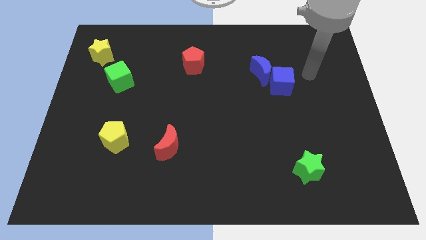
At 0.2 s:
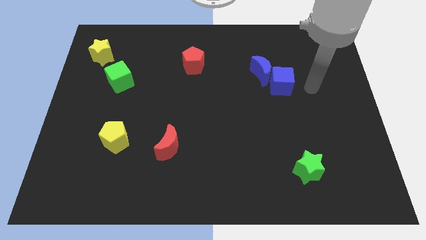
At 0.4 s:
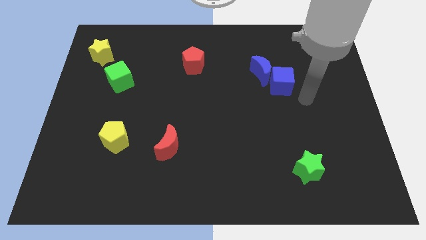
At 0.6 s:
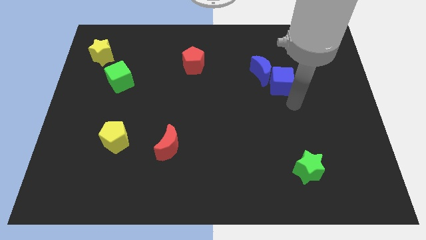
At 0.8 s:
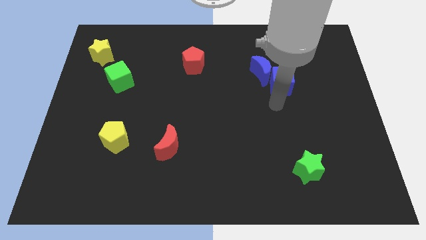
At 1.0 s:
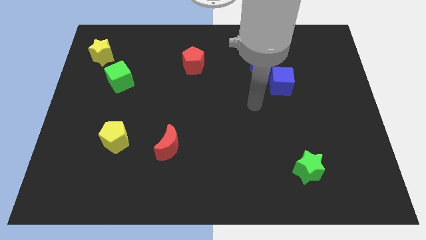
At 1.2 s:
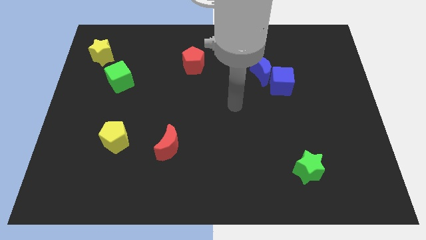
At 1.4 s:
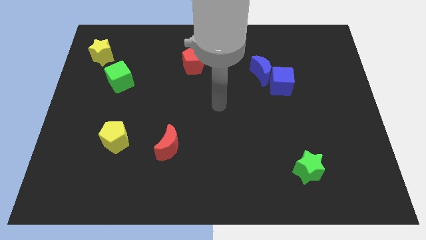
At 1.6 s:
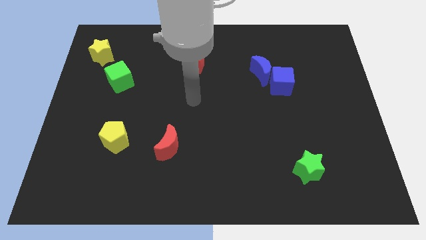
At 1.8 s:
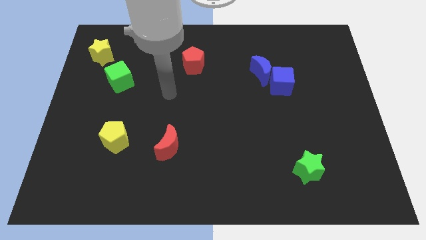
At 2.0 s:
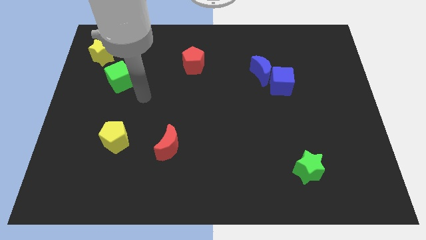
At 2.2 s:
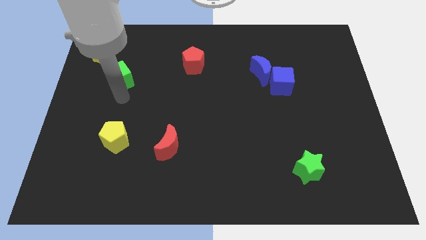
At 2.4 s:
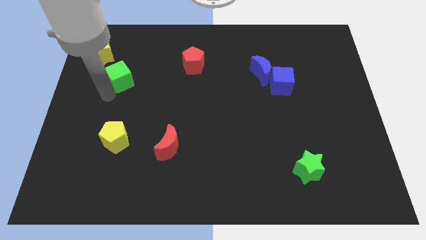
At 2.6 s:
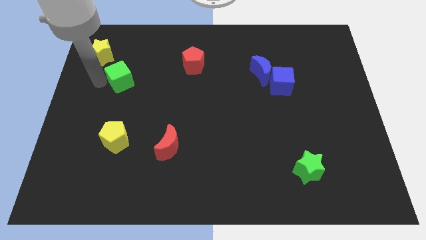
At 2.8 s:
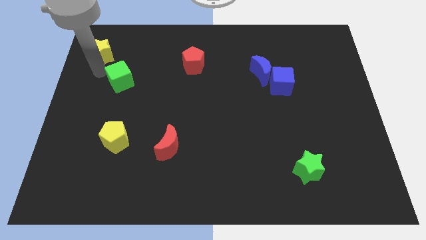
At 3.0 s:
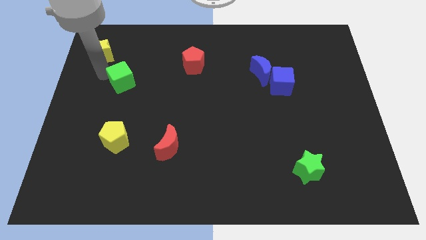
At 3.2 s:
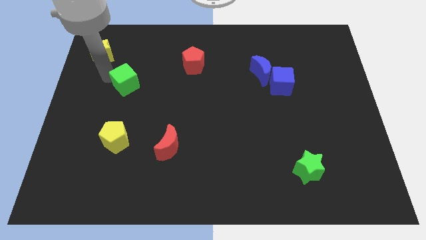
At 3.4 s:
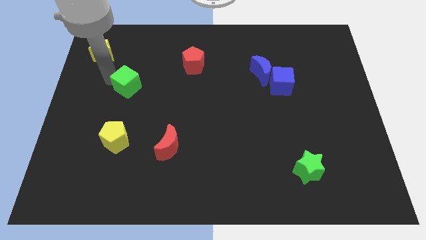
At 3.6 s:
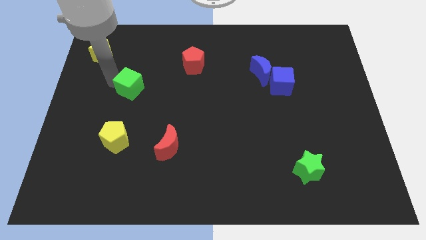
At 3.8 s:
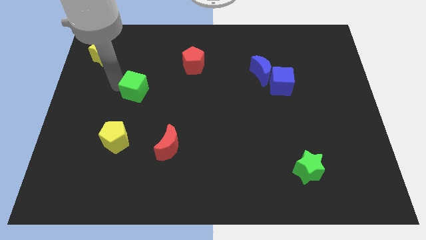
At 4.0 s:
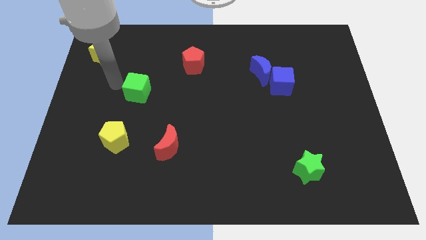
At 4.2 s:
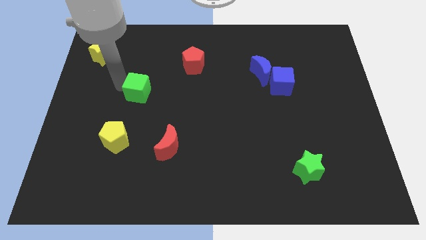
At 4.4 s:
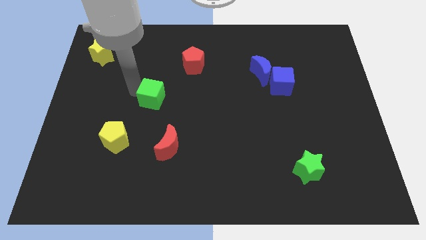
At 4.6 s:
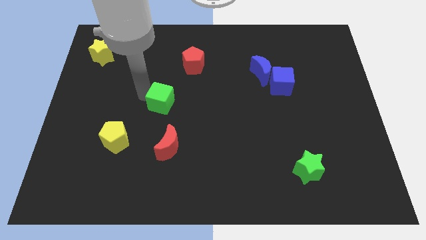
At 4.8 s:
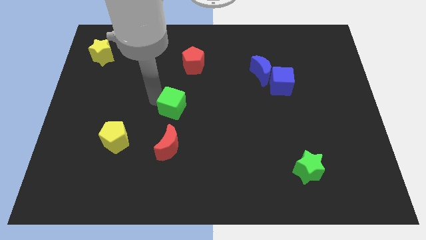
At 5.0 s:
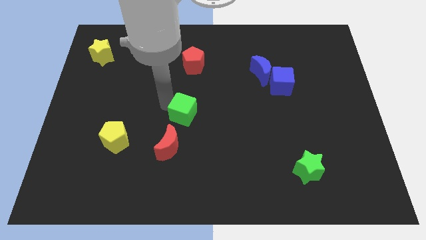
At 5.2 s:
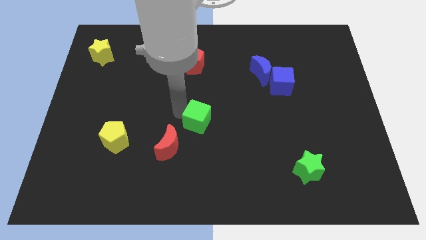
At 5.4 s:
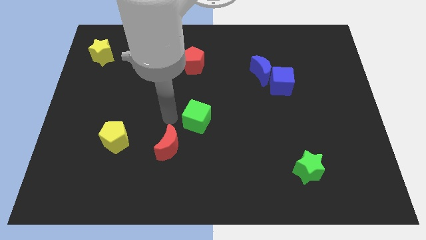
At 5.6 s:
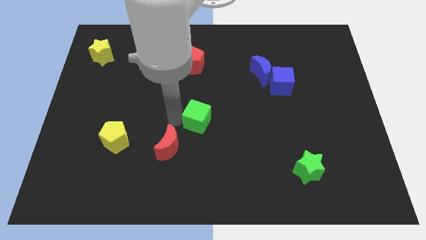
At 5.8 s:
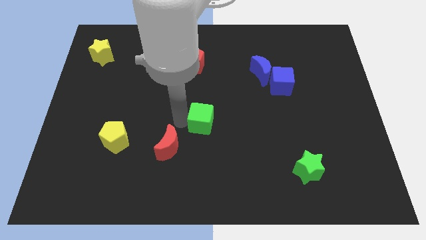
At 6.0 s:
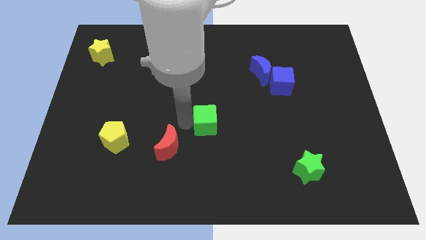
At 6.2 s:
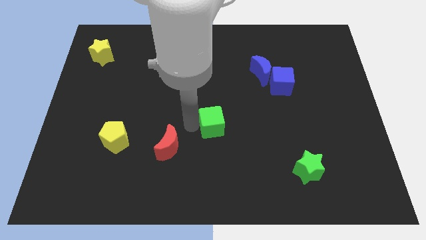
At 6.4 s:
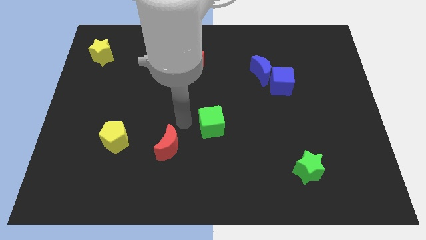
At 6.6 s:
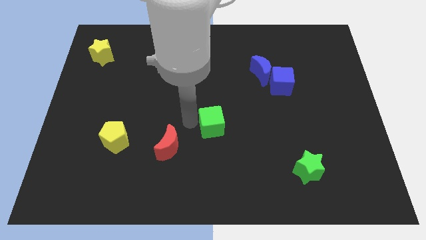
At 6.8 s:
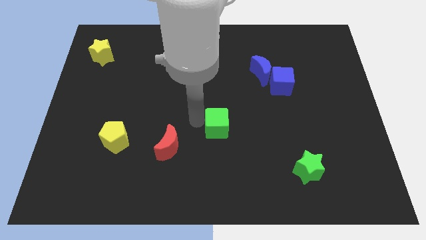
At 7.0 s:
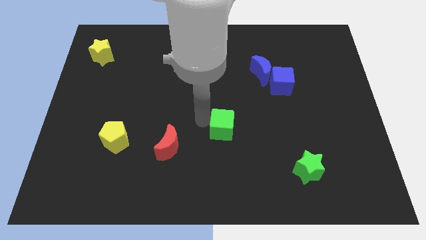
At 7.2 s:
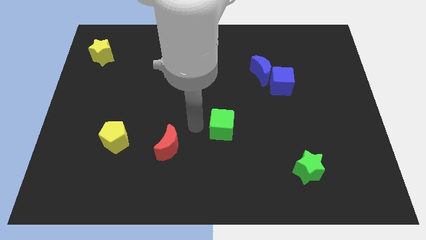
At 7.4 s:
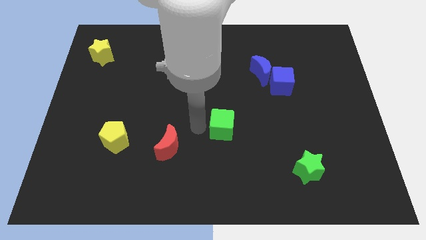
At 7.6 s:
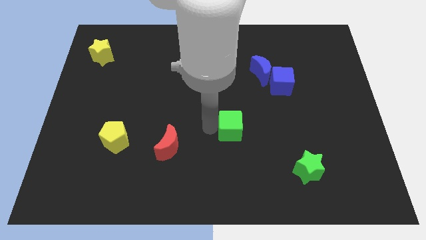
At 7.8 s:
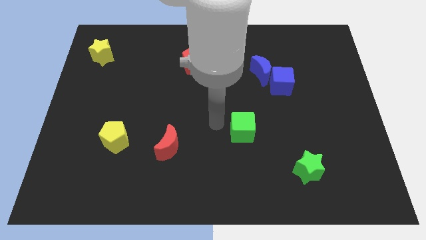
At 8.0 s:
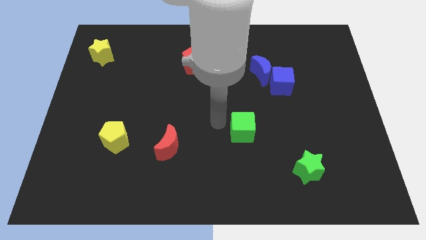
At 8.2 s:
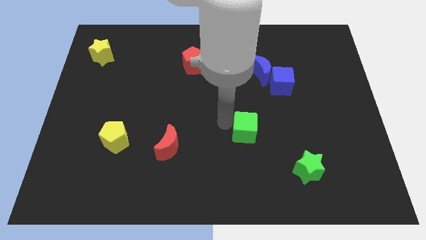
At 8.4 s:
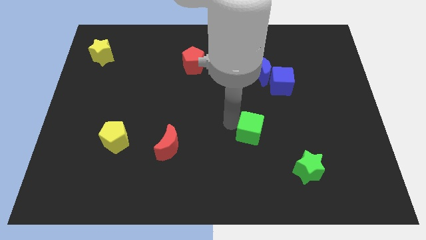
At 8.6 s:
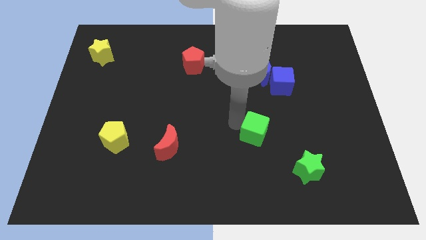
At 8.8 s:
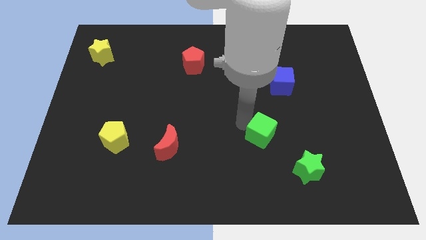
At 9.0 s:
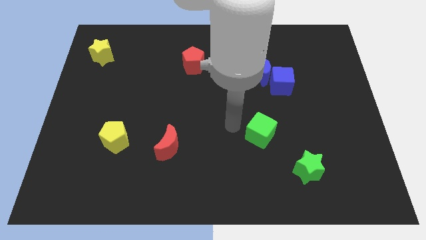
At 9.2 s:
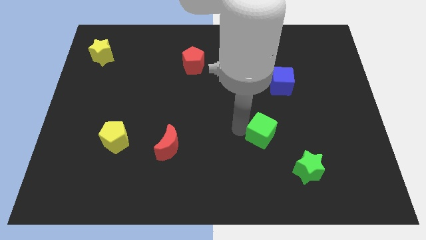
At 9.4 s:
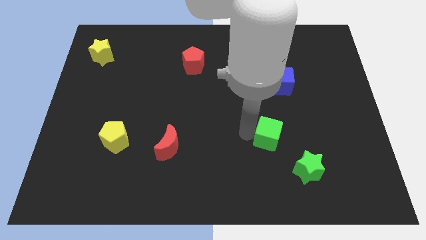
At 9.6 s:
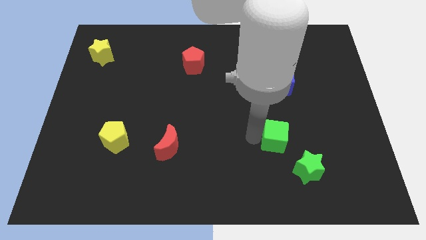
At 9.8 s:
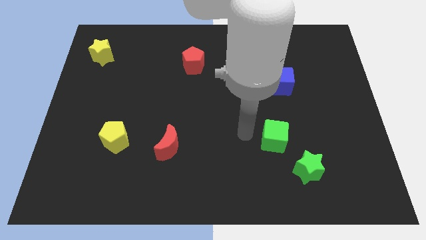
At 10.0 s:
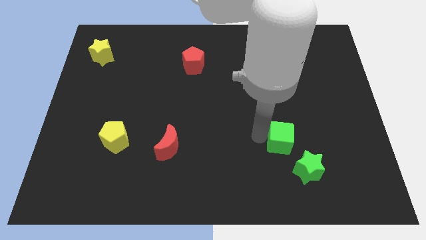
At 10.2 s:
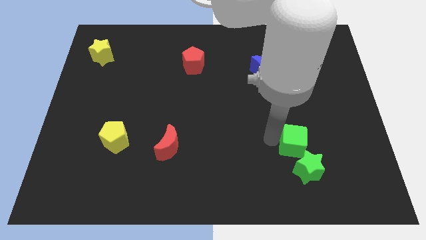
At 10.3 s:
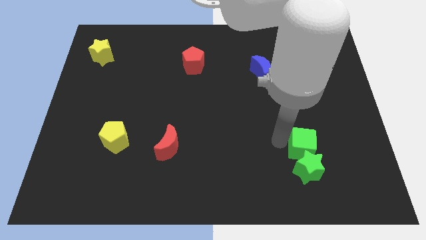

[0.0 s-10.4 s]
move the green cube diagonally up and to the right of the green star

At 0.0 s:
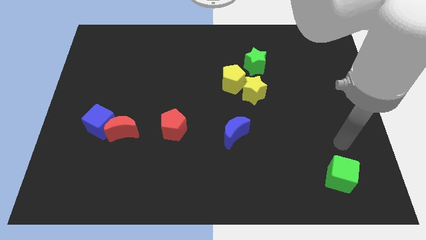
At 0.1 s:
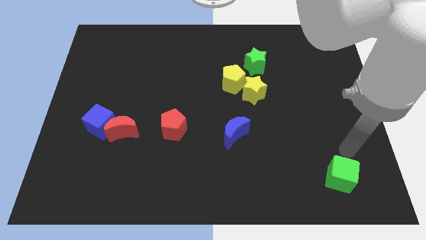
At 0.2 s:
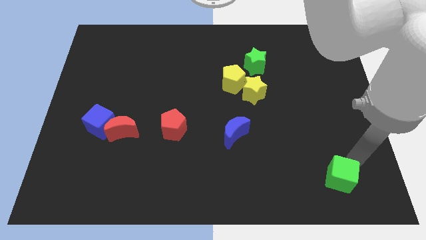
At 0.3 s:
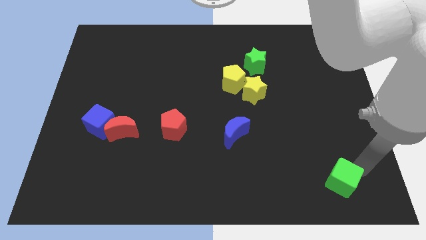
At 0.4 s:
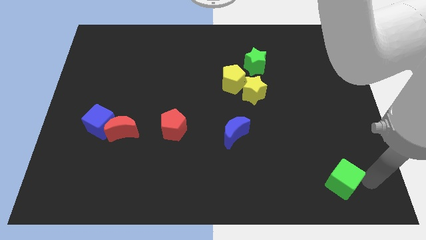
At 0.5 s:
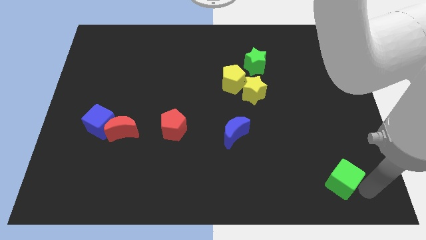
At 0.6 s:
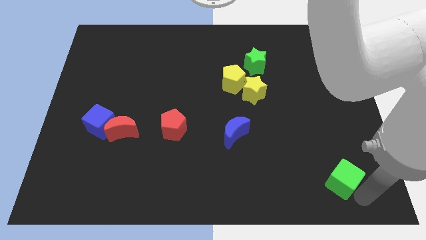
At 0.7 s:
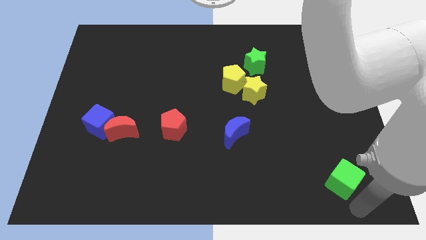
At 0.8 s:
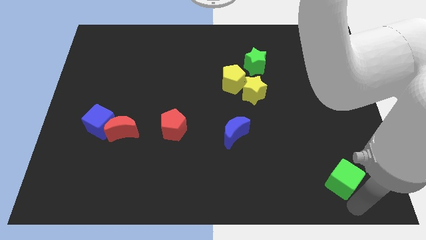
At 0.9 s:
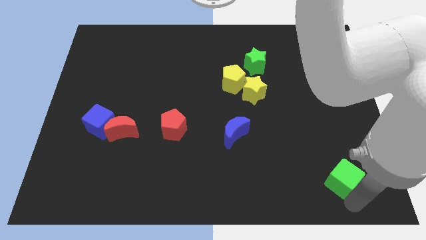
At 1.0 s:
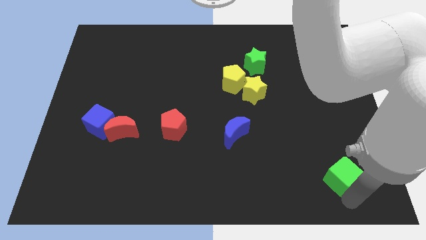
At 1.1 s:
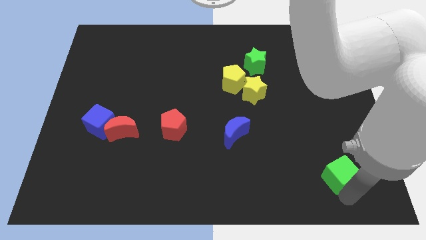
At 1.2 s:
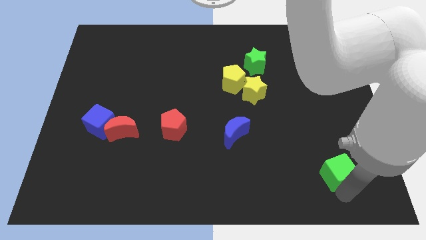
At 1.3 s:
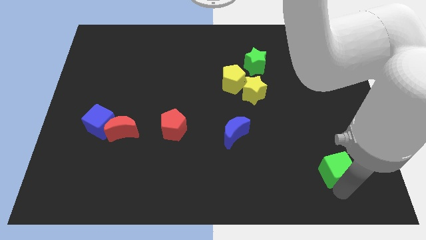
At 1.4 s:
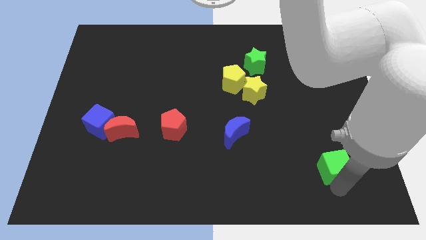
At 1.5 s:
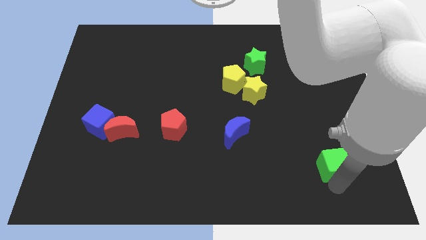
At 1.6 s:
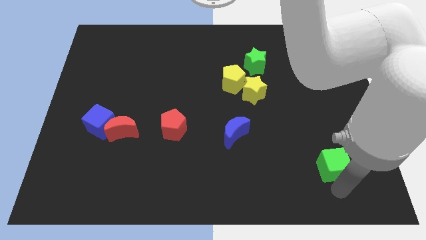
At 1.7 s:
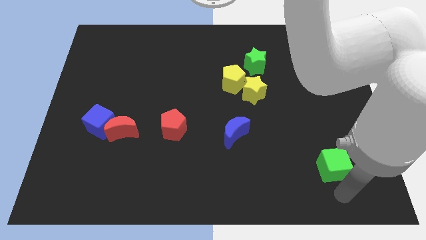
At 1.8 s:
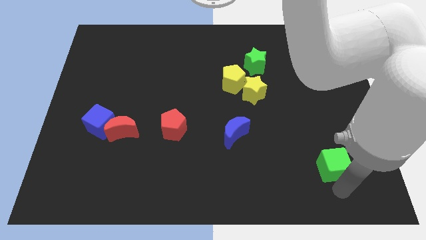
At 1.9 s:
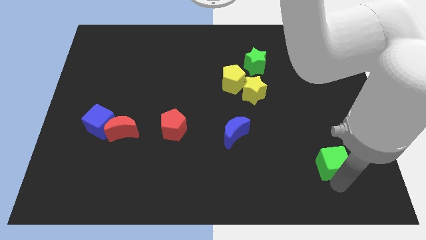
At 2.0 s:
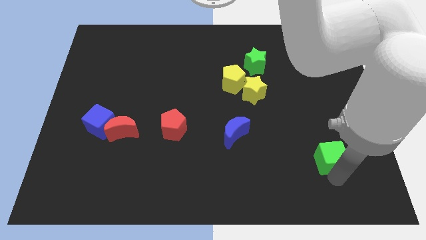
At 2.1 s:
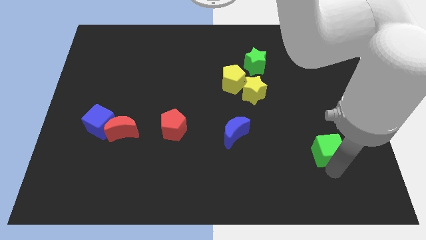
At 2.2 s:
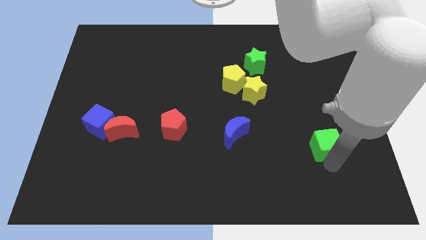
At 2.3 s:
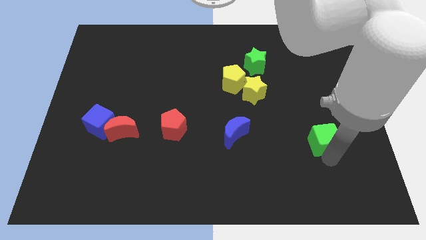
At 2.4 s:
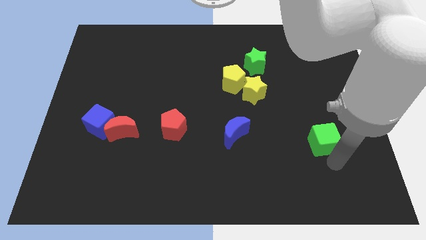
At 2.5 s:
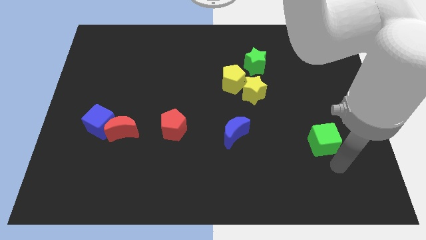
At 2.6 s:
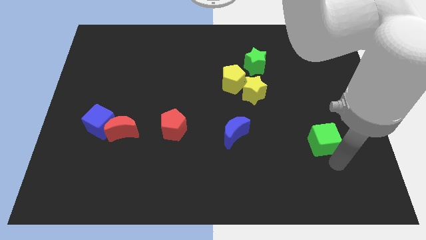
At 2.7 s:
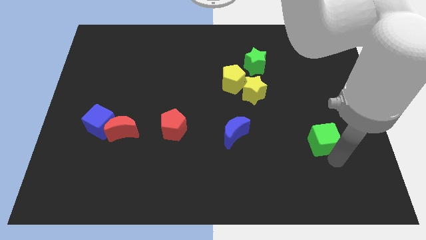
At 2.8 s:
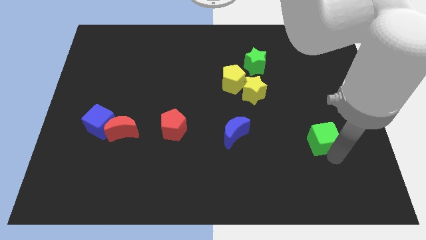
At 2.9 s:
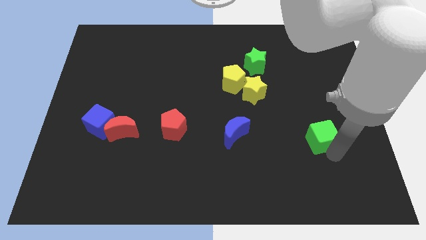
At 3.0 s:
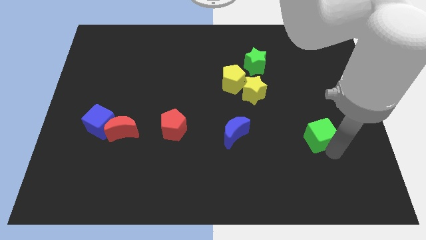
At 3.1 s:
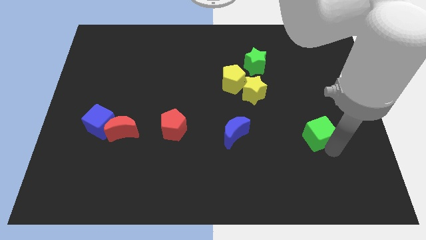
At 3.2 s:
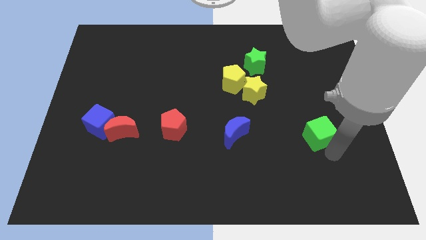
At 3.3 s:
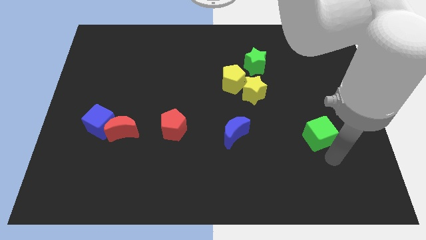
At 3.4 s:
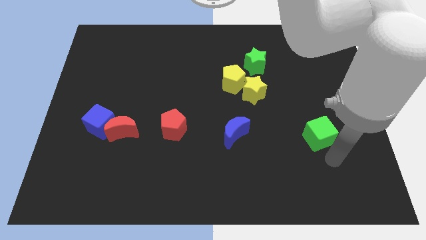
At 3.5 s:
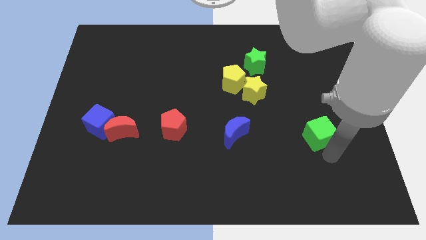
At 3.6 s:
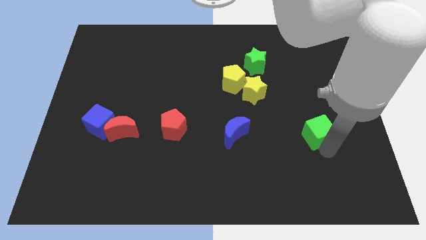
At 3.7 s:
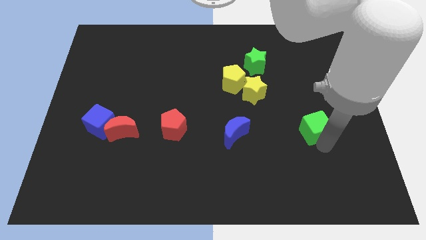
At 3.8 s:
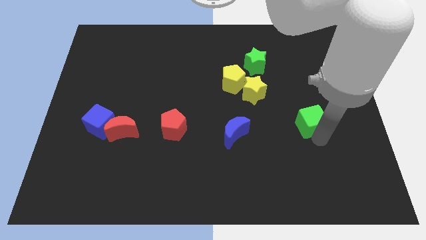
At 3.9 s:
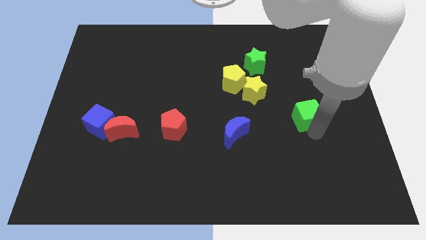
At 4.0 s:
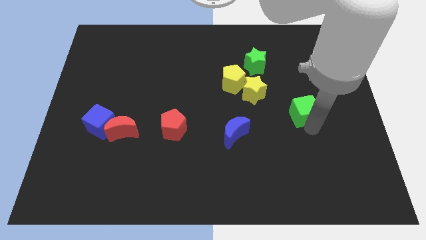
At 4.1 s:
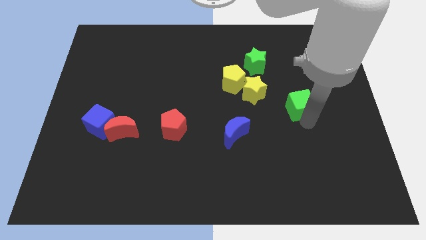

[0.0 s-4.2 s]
put the green cube to the right of the yellow star
